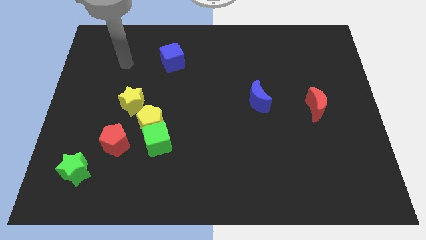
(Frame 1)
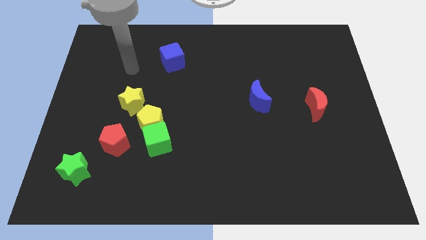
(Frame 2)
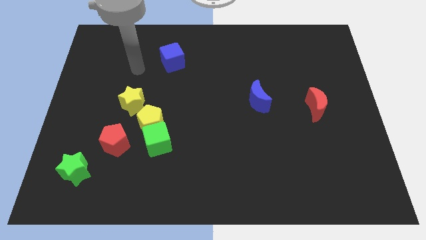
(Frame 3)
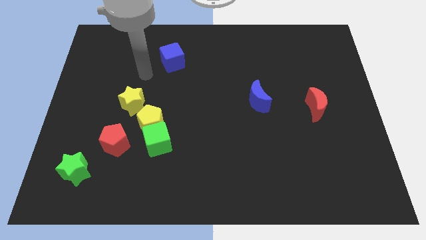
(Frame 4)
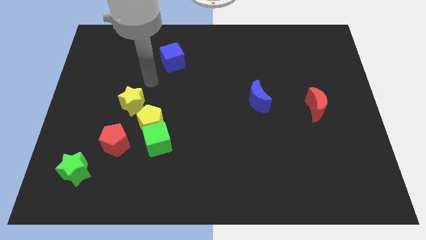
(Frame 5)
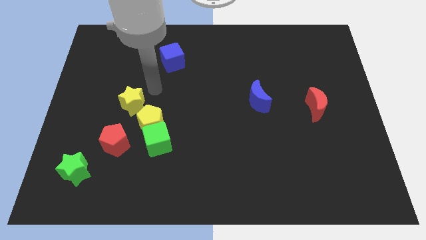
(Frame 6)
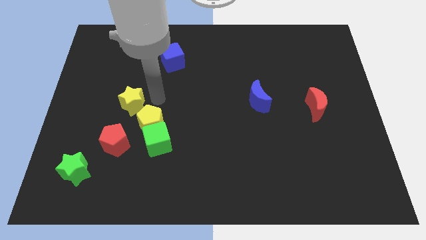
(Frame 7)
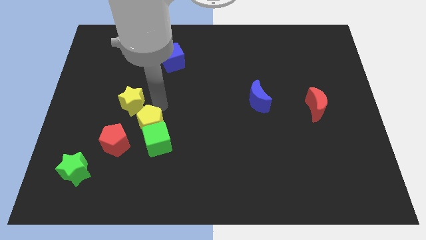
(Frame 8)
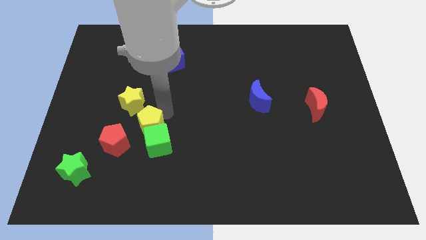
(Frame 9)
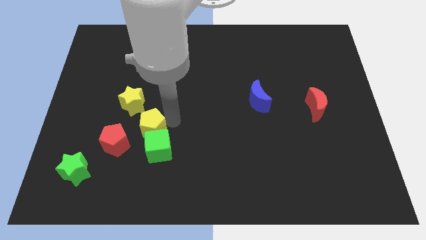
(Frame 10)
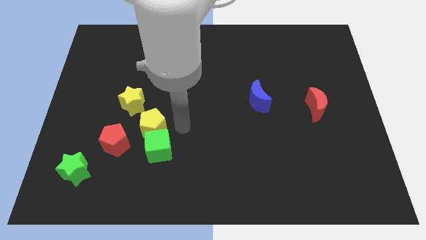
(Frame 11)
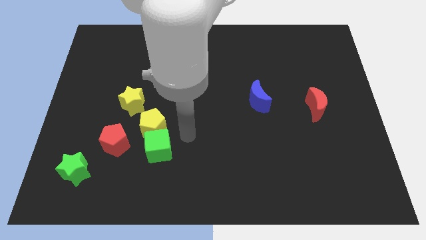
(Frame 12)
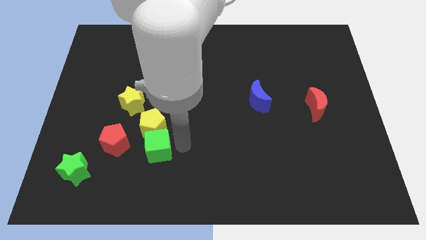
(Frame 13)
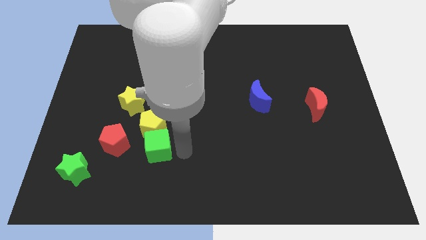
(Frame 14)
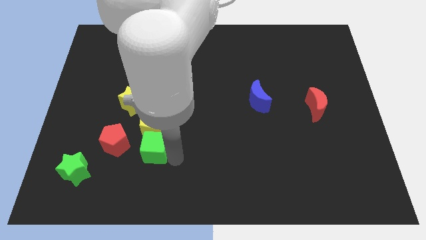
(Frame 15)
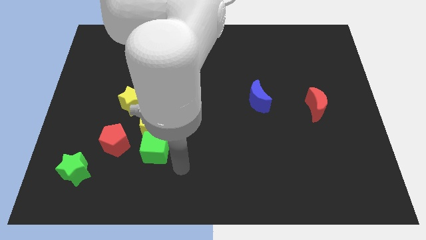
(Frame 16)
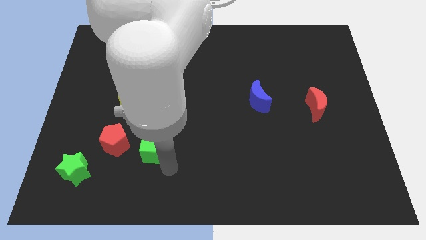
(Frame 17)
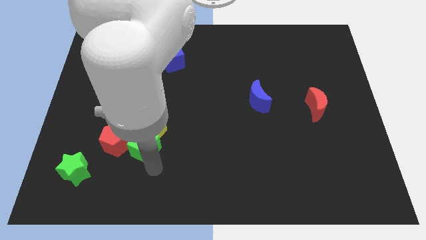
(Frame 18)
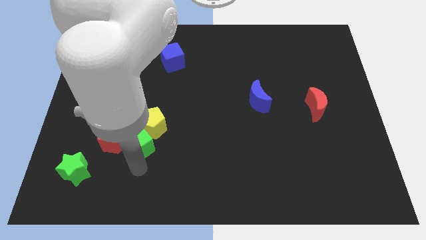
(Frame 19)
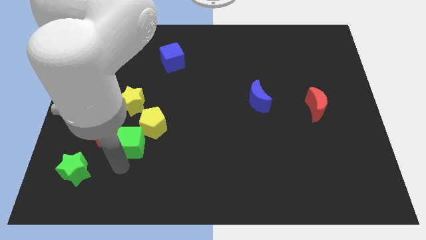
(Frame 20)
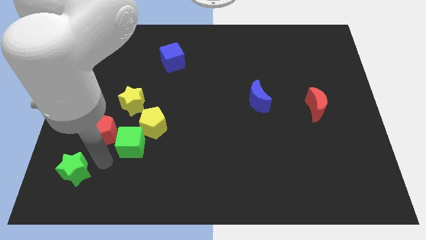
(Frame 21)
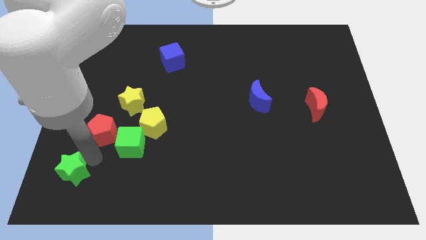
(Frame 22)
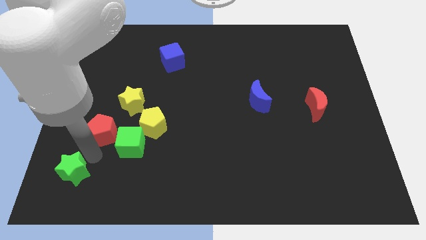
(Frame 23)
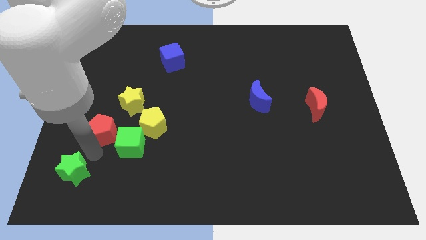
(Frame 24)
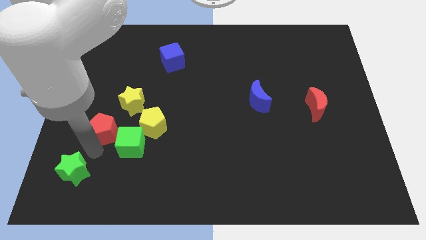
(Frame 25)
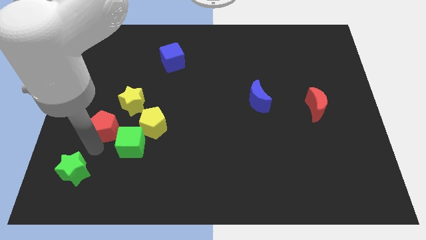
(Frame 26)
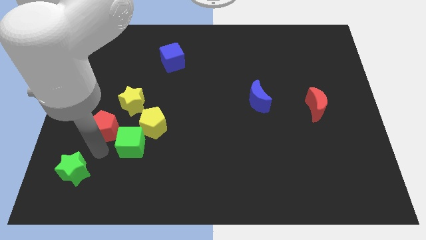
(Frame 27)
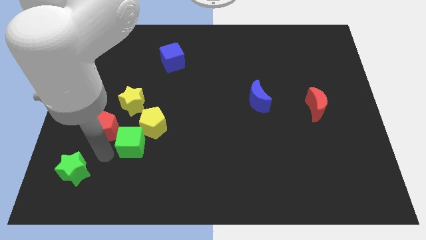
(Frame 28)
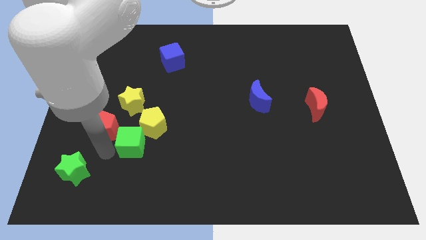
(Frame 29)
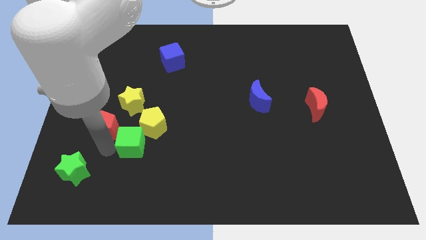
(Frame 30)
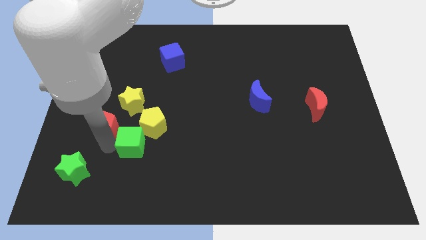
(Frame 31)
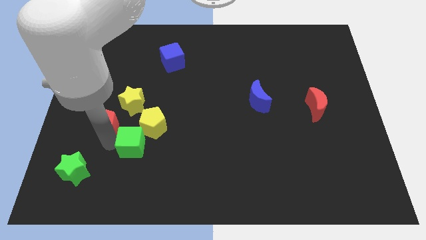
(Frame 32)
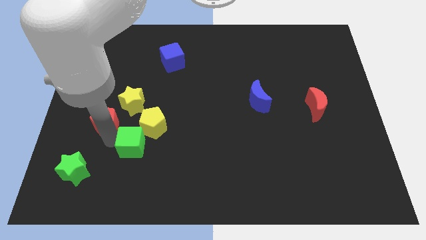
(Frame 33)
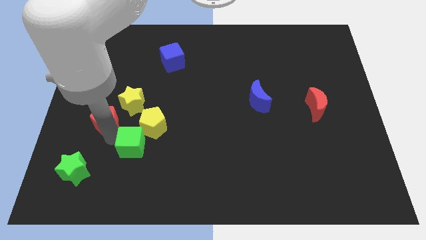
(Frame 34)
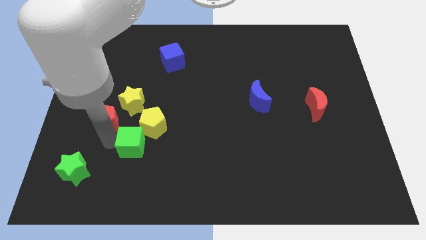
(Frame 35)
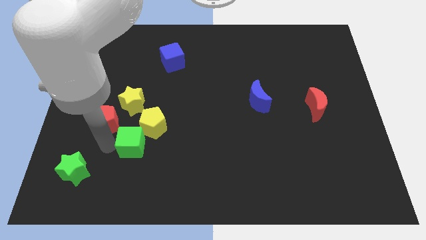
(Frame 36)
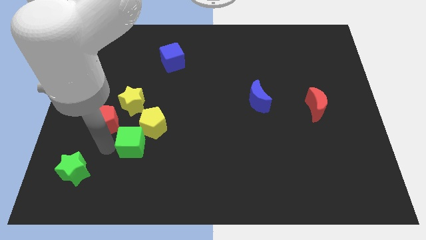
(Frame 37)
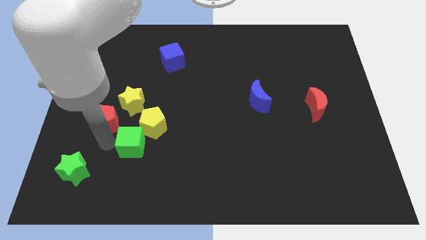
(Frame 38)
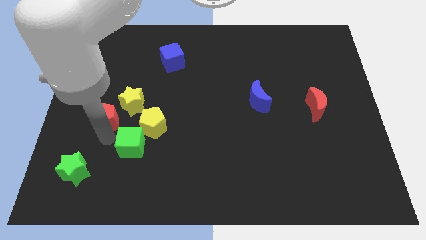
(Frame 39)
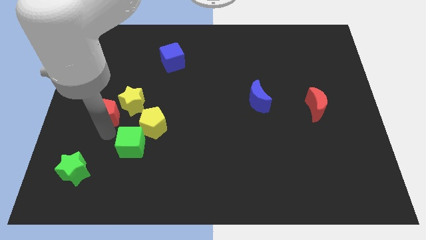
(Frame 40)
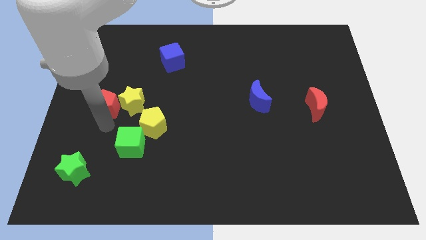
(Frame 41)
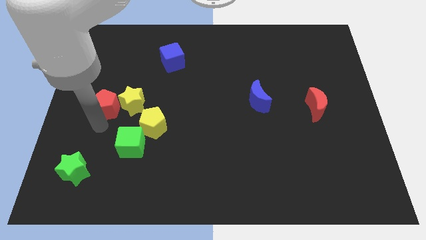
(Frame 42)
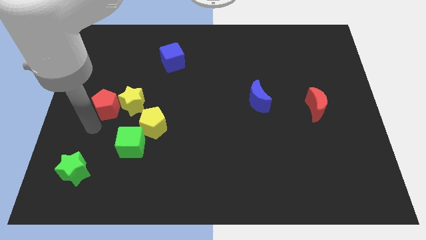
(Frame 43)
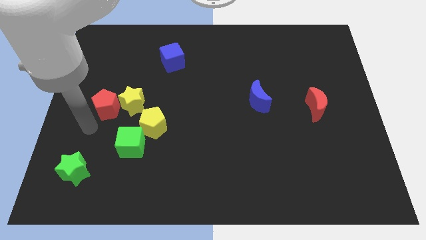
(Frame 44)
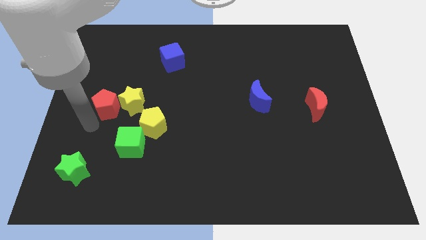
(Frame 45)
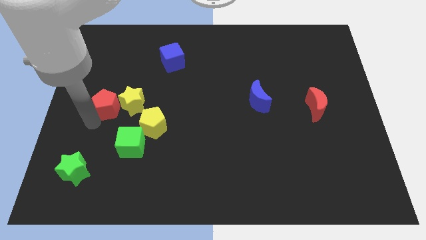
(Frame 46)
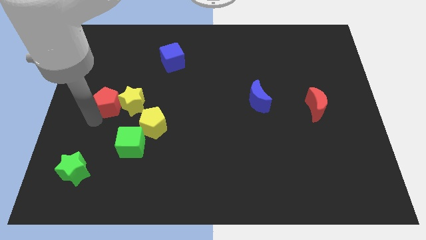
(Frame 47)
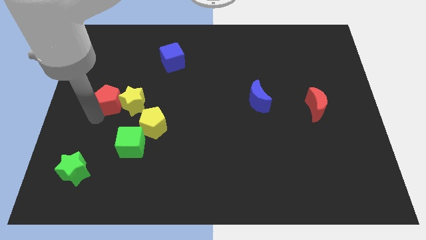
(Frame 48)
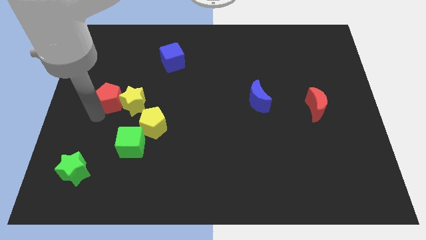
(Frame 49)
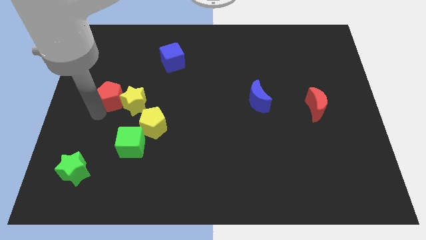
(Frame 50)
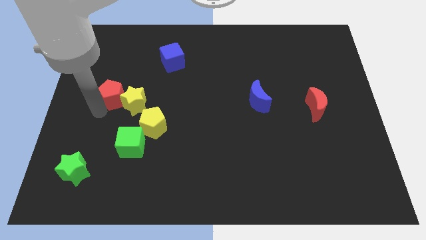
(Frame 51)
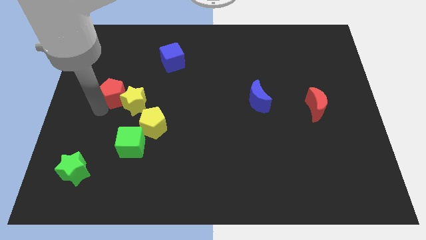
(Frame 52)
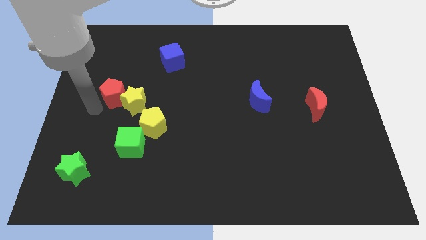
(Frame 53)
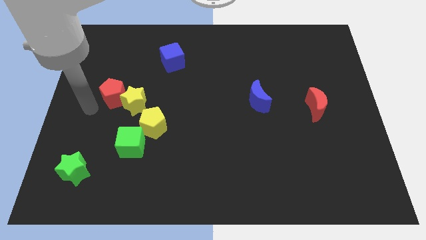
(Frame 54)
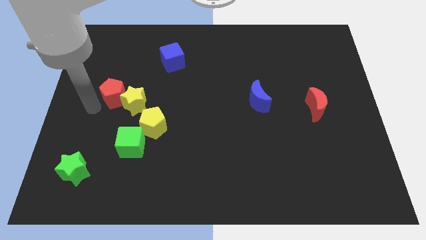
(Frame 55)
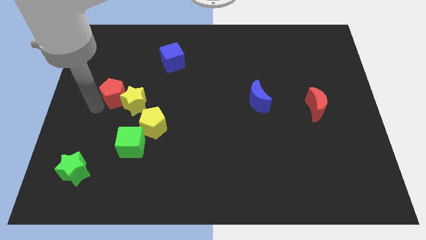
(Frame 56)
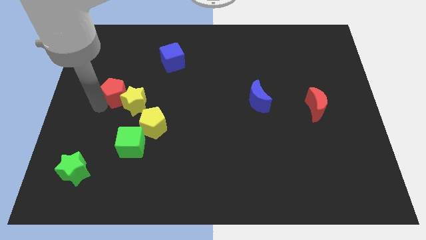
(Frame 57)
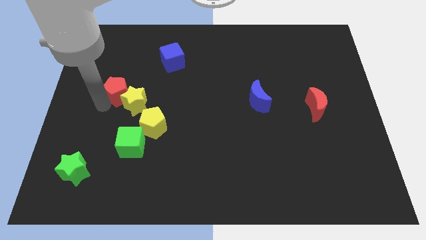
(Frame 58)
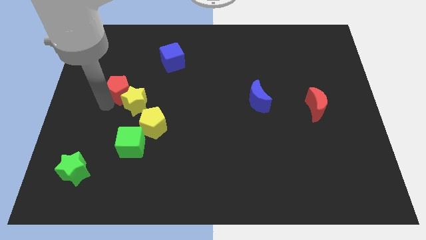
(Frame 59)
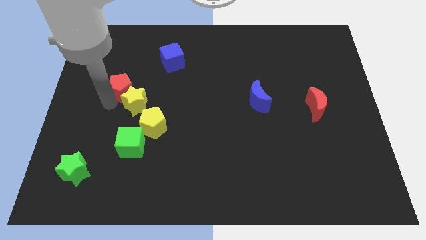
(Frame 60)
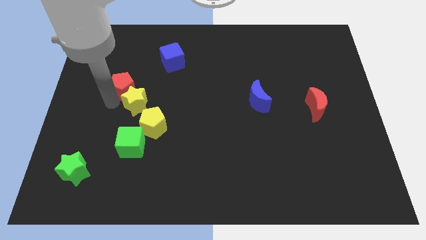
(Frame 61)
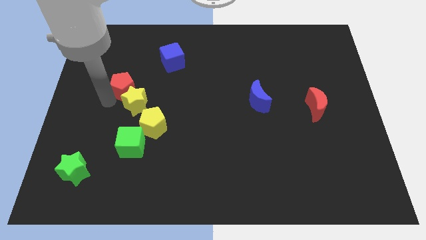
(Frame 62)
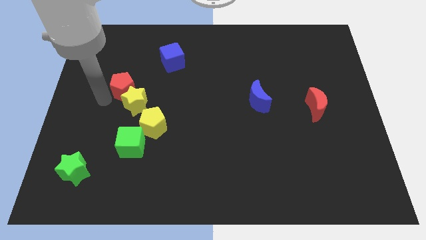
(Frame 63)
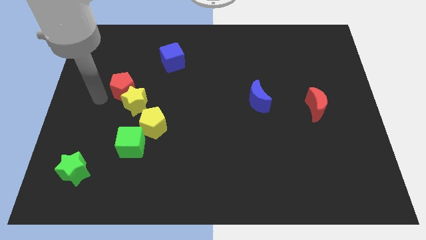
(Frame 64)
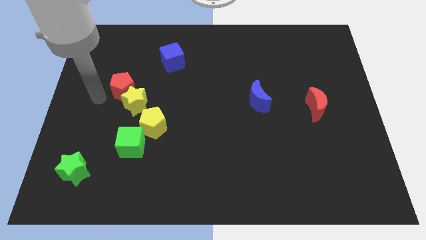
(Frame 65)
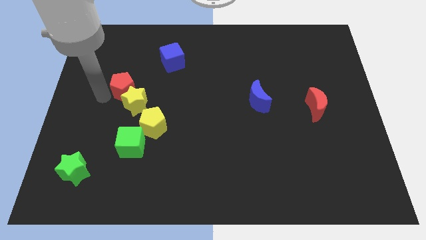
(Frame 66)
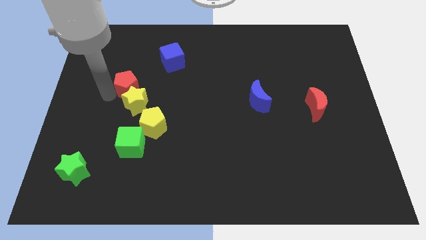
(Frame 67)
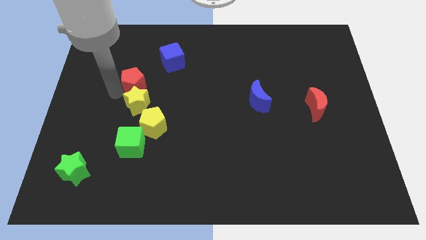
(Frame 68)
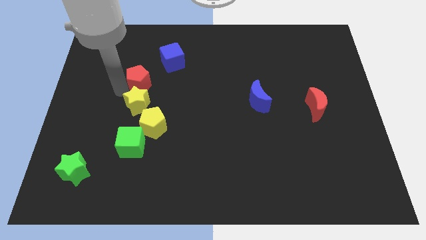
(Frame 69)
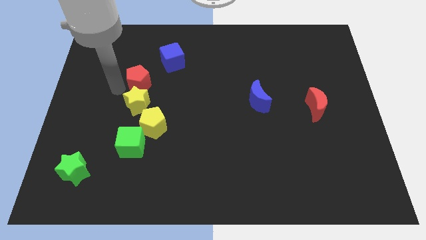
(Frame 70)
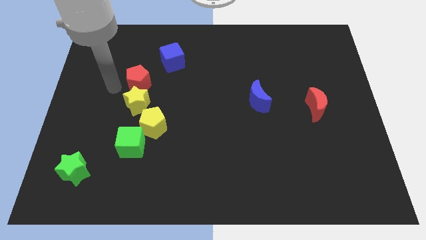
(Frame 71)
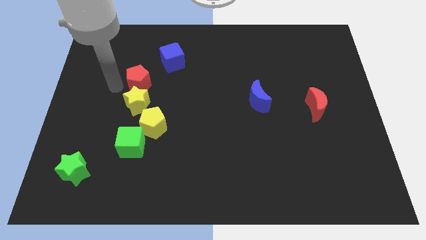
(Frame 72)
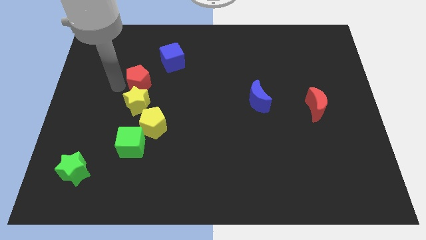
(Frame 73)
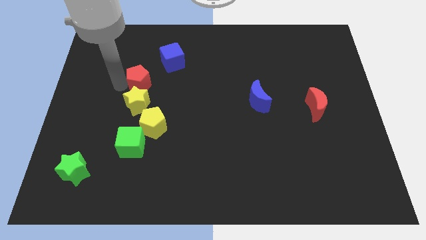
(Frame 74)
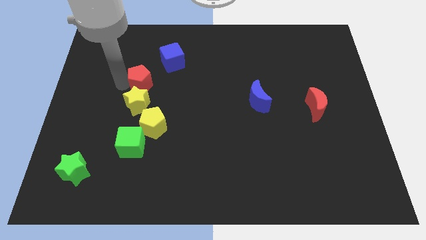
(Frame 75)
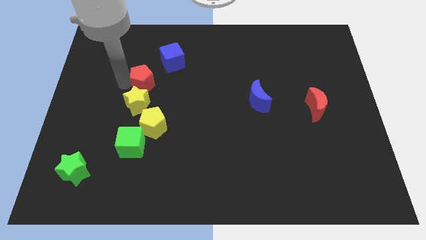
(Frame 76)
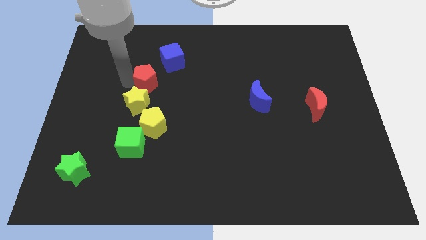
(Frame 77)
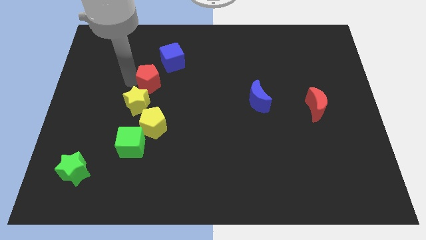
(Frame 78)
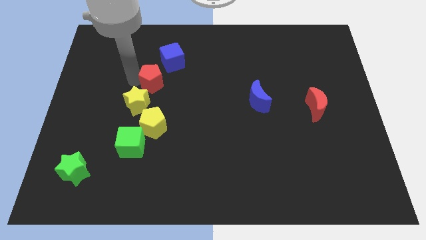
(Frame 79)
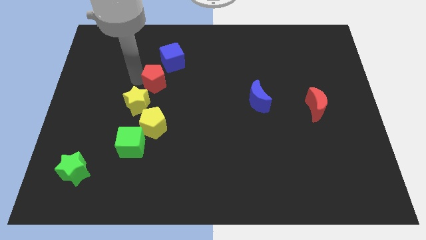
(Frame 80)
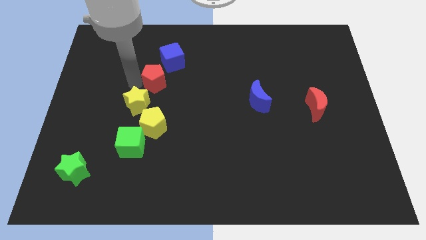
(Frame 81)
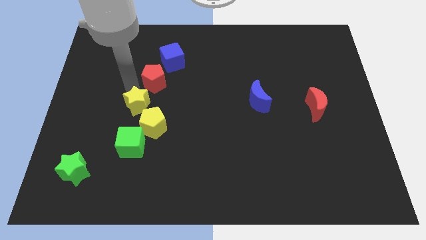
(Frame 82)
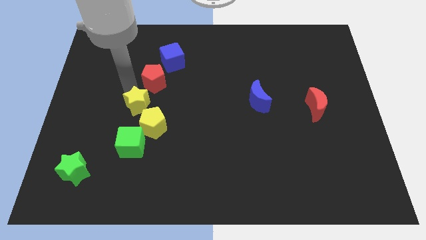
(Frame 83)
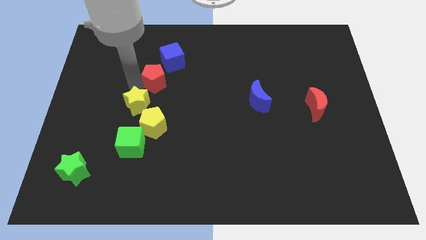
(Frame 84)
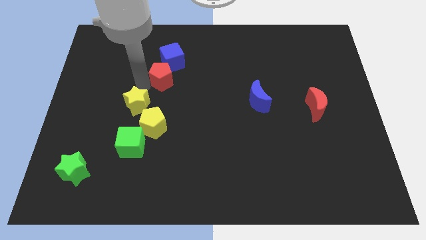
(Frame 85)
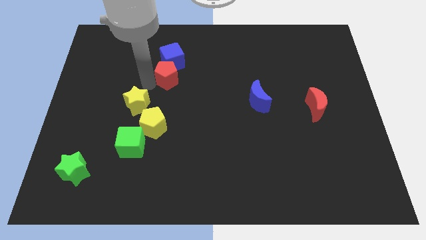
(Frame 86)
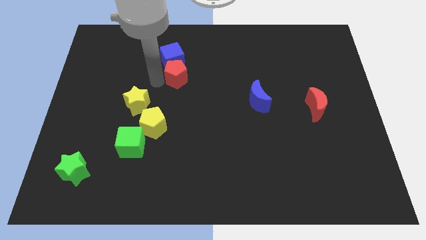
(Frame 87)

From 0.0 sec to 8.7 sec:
push the red pentagon diagonally up and right
